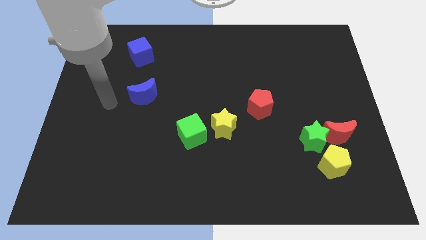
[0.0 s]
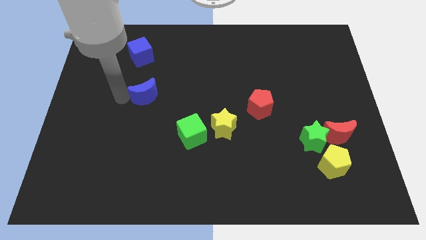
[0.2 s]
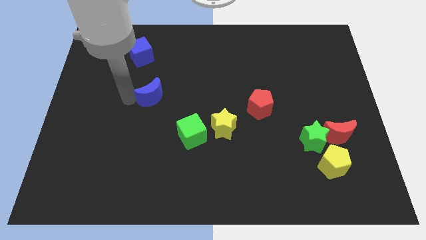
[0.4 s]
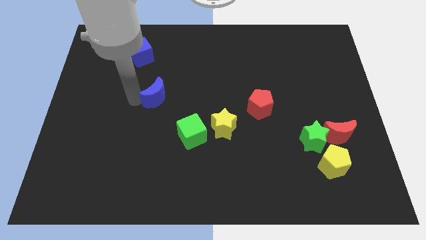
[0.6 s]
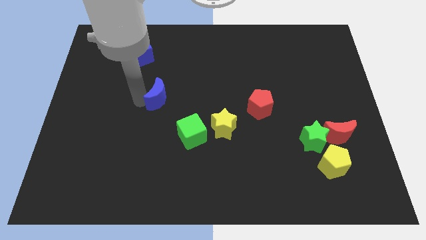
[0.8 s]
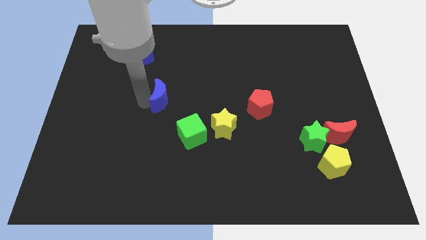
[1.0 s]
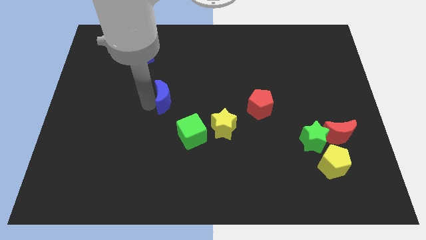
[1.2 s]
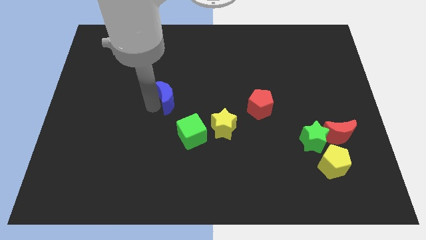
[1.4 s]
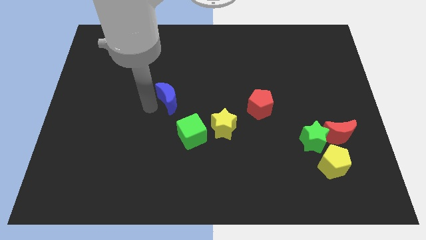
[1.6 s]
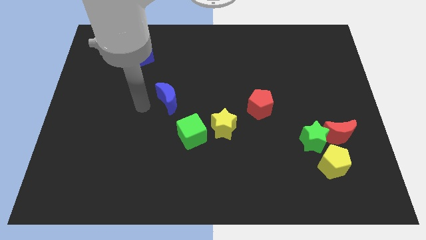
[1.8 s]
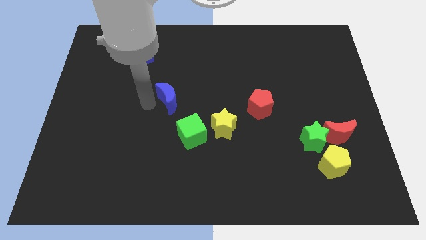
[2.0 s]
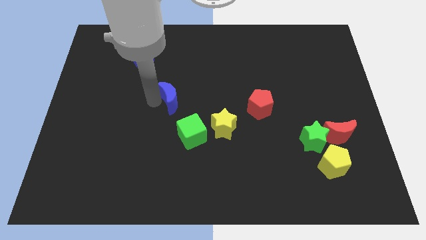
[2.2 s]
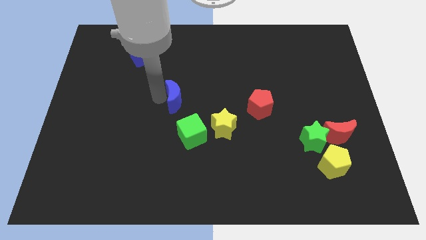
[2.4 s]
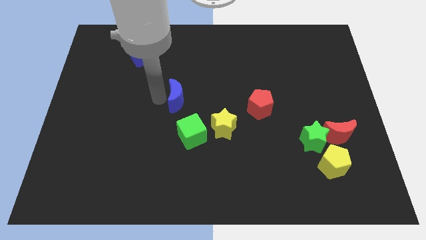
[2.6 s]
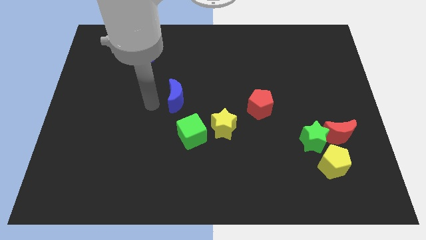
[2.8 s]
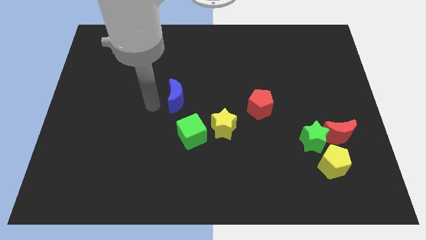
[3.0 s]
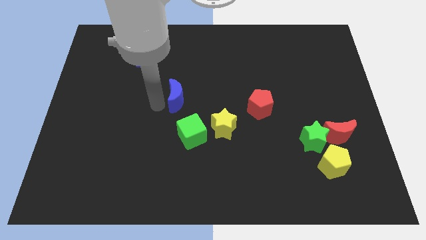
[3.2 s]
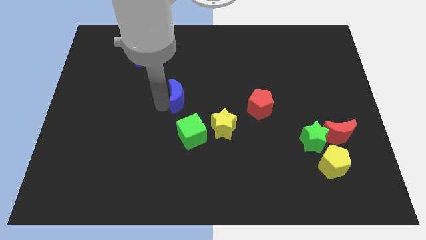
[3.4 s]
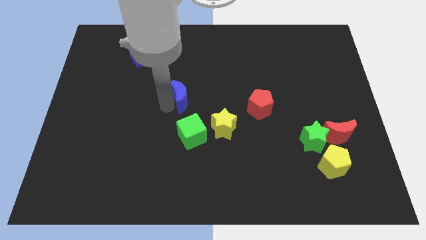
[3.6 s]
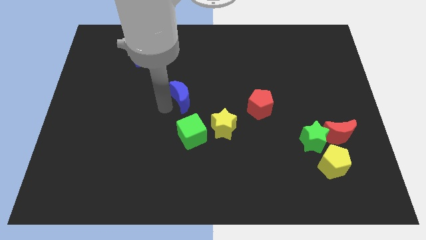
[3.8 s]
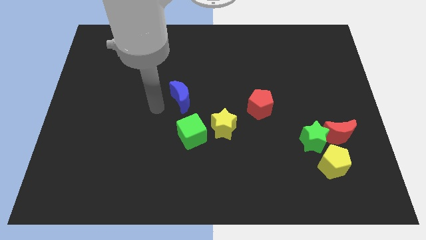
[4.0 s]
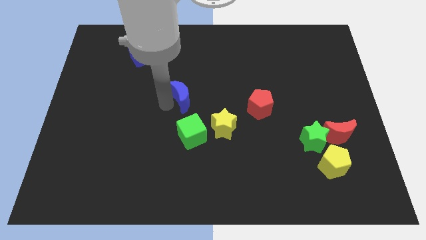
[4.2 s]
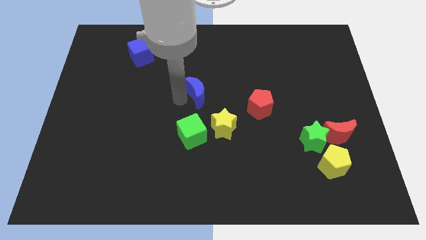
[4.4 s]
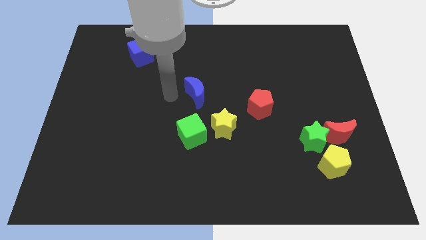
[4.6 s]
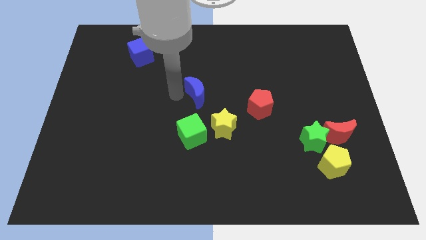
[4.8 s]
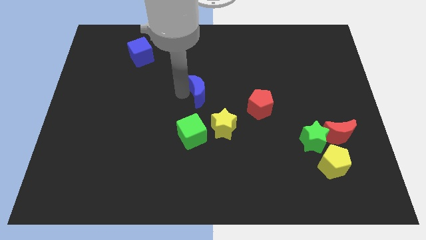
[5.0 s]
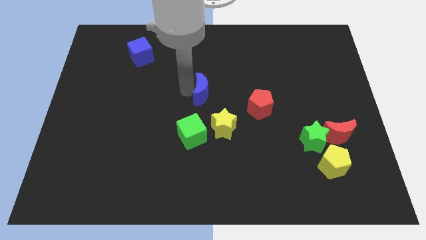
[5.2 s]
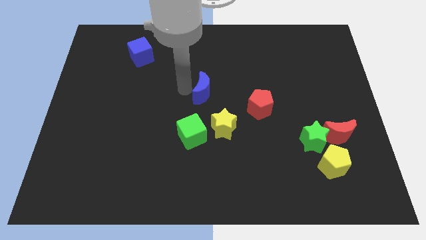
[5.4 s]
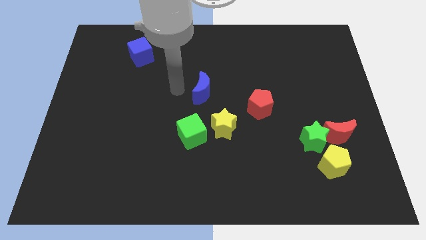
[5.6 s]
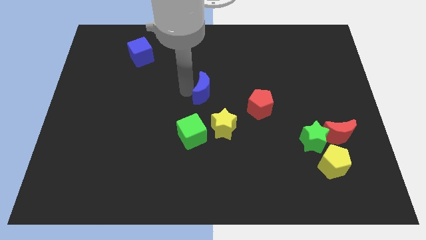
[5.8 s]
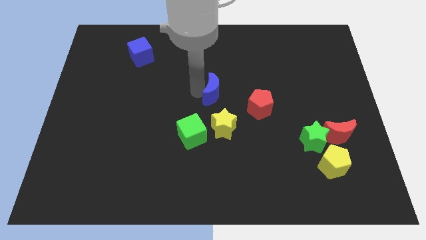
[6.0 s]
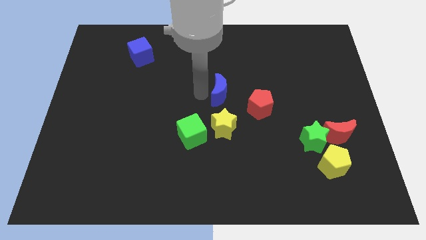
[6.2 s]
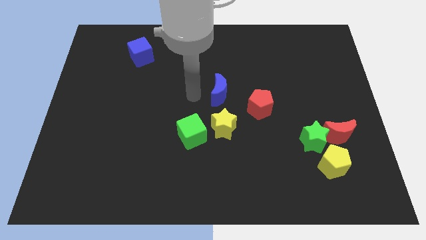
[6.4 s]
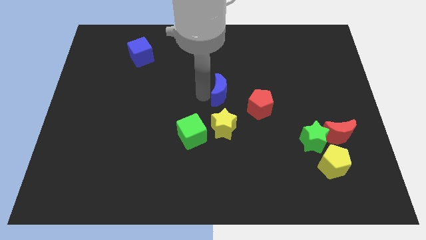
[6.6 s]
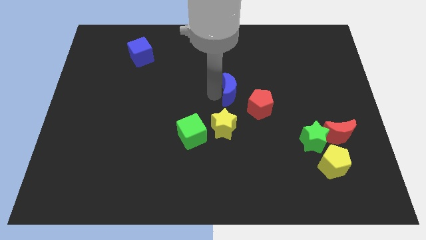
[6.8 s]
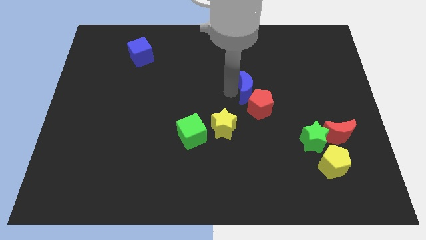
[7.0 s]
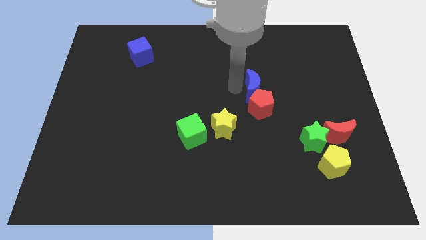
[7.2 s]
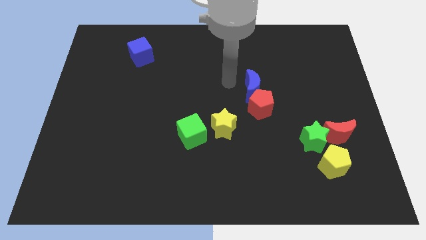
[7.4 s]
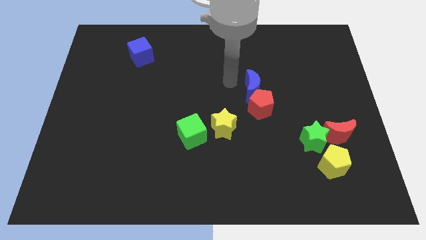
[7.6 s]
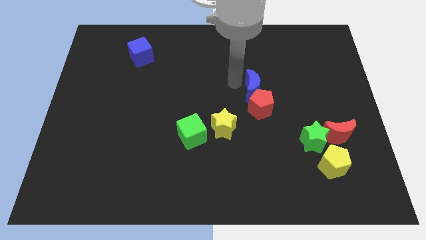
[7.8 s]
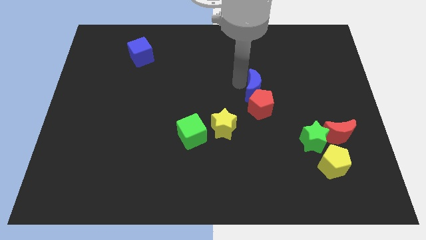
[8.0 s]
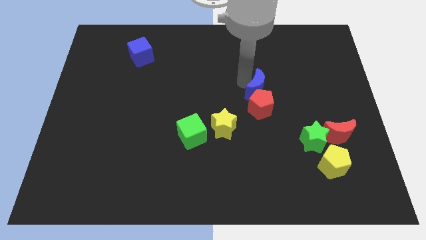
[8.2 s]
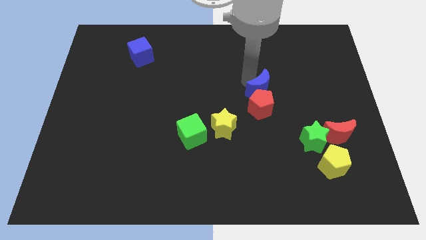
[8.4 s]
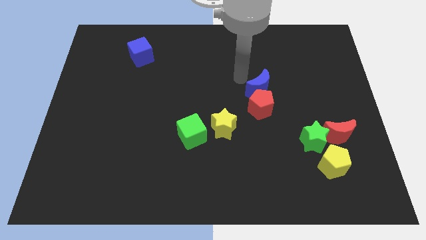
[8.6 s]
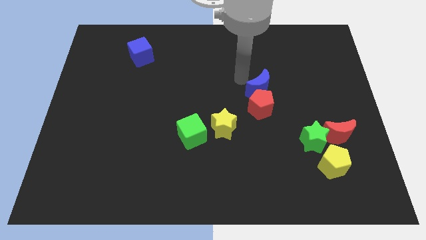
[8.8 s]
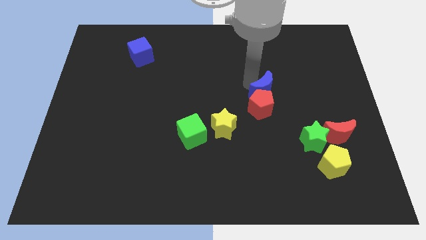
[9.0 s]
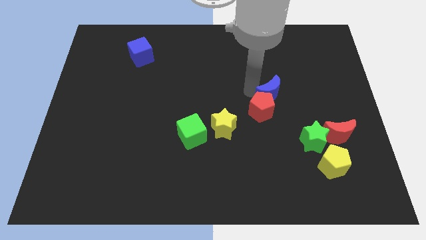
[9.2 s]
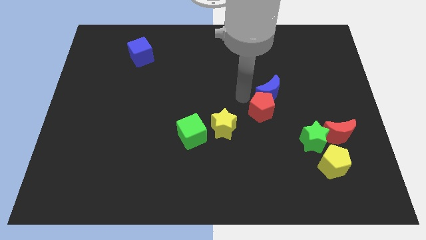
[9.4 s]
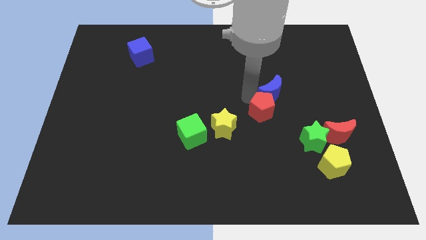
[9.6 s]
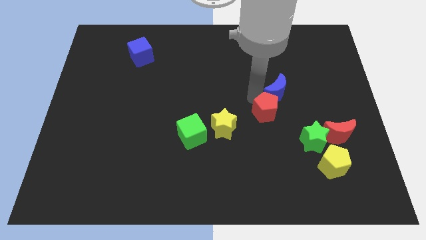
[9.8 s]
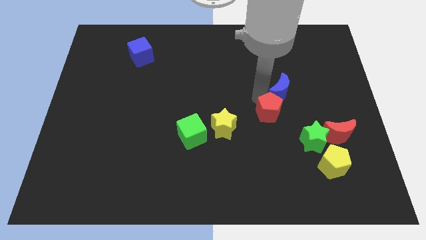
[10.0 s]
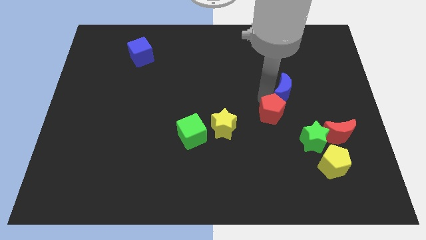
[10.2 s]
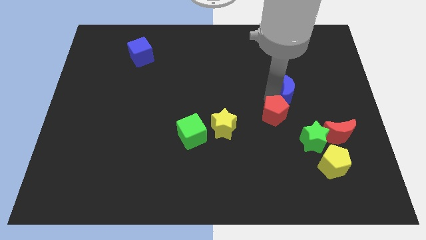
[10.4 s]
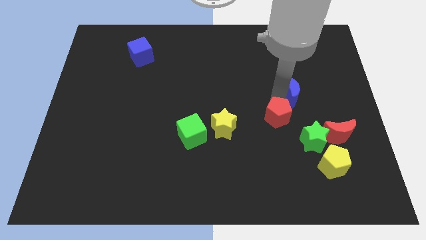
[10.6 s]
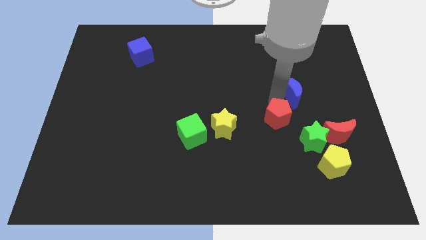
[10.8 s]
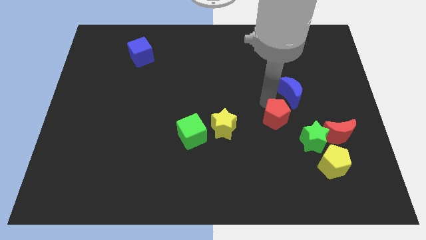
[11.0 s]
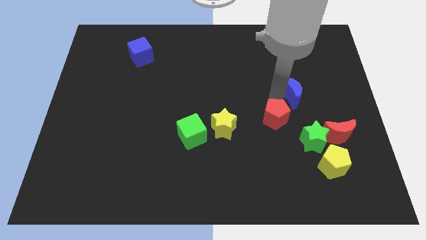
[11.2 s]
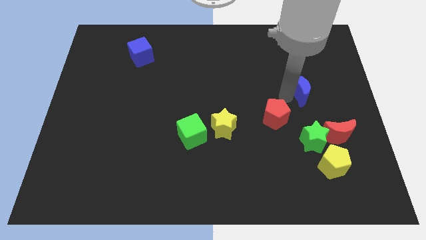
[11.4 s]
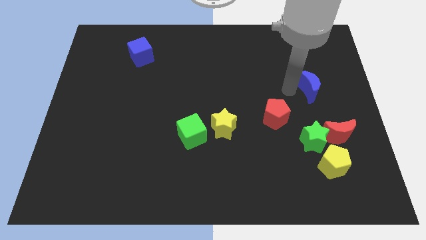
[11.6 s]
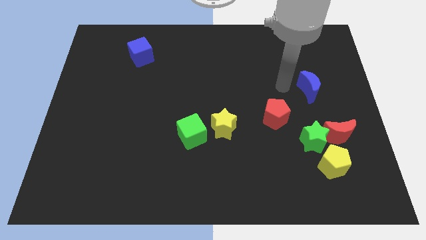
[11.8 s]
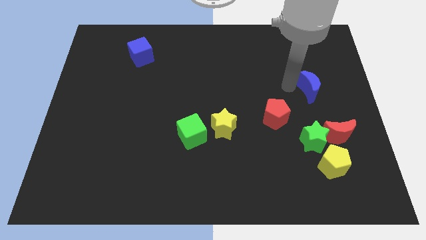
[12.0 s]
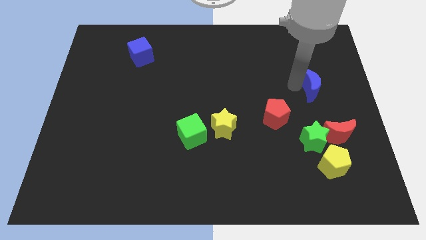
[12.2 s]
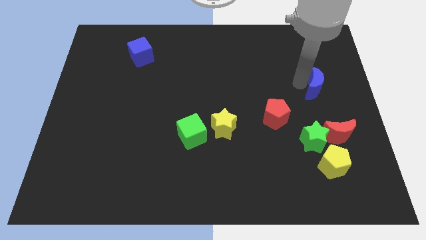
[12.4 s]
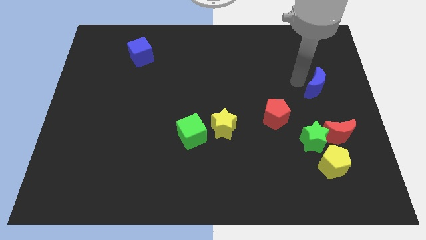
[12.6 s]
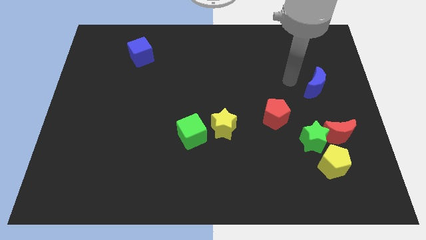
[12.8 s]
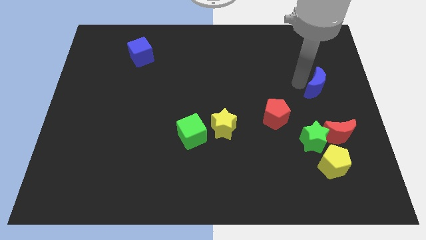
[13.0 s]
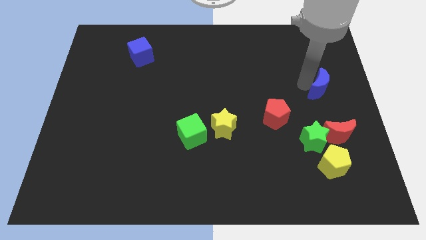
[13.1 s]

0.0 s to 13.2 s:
move the blue moon to the right side

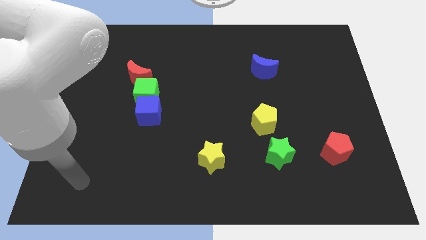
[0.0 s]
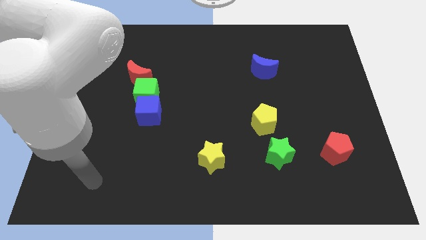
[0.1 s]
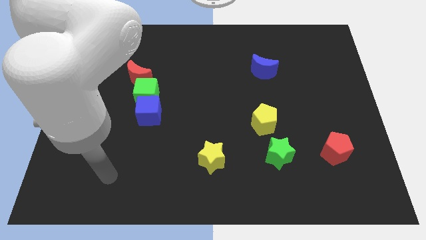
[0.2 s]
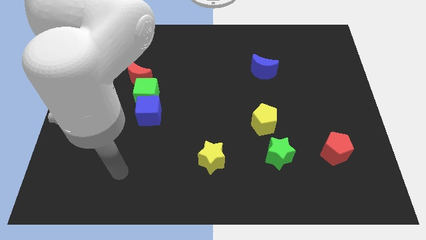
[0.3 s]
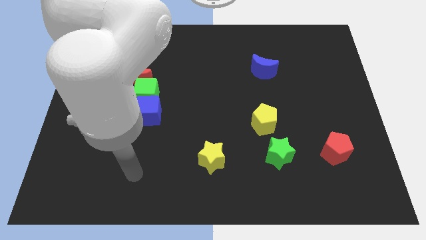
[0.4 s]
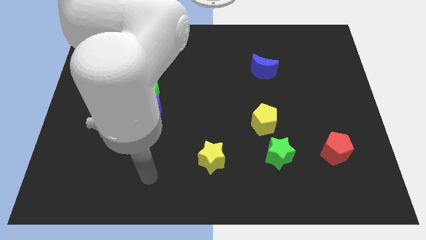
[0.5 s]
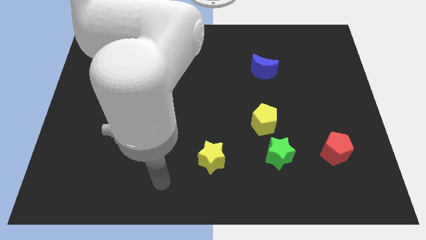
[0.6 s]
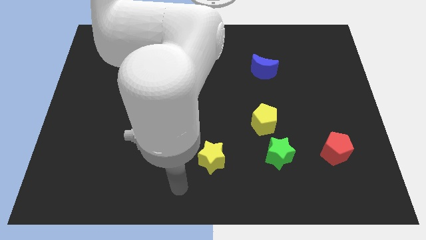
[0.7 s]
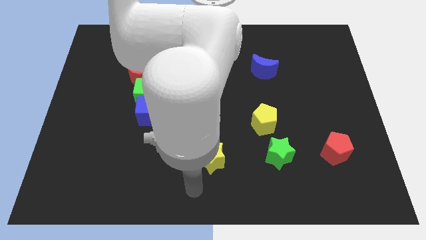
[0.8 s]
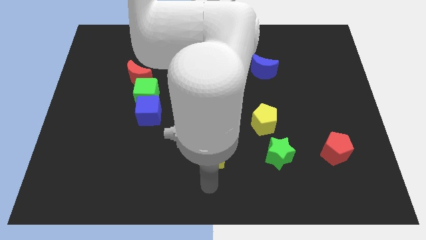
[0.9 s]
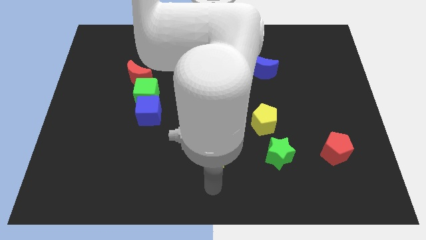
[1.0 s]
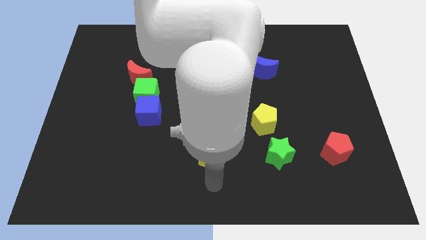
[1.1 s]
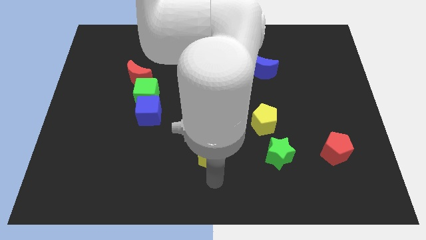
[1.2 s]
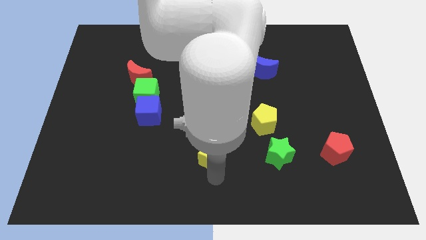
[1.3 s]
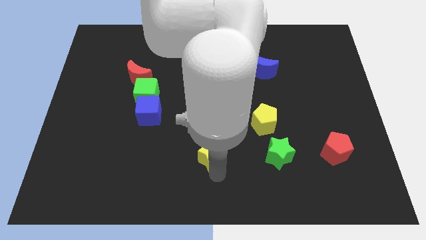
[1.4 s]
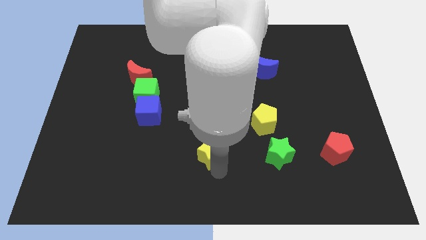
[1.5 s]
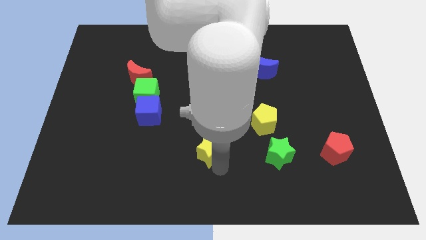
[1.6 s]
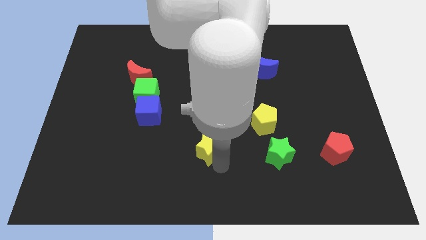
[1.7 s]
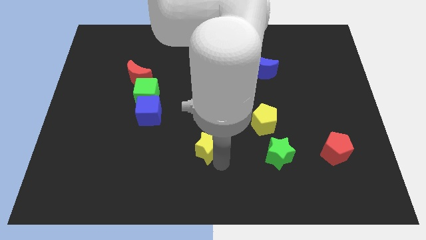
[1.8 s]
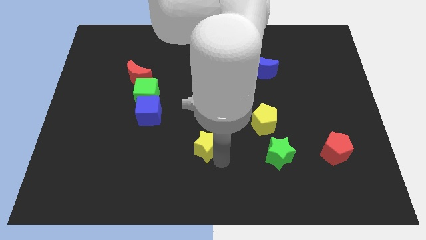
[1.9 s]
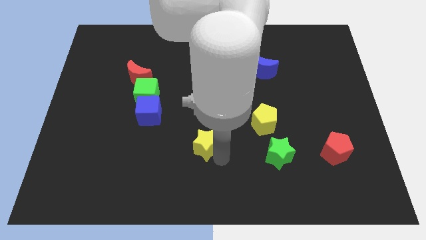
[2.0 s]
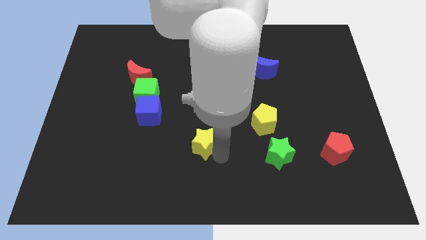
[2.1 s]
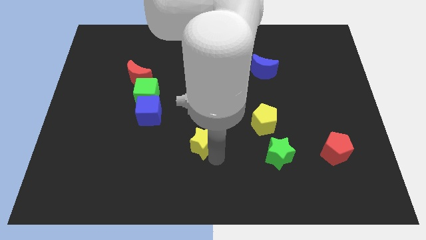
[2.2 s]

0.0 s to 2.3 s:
slide the yellow star to the middle of the board
